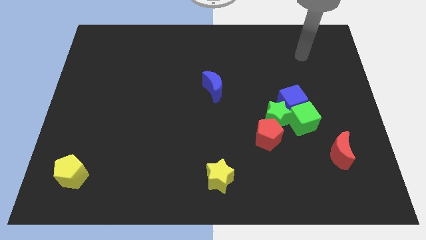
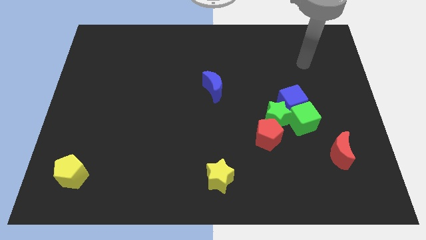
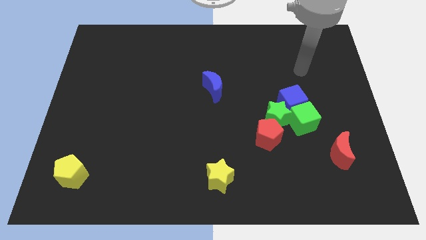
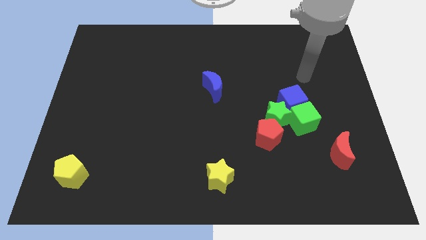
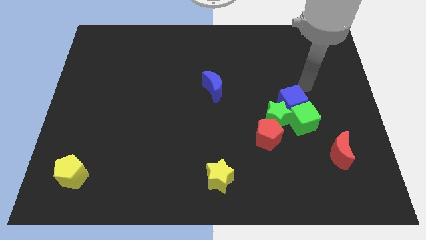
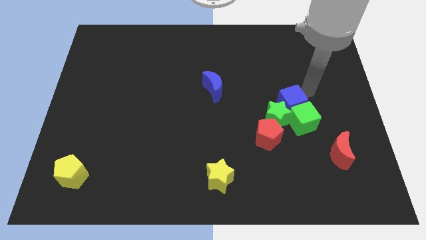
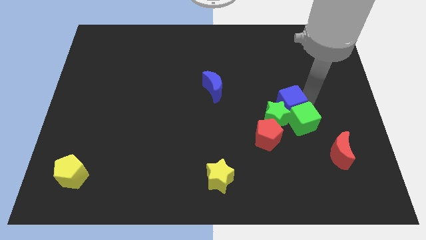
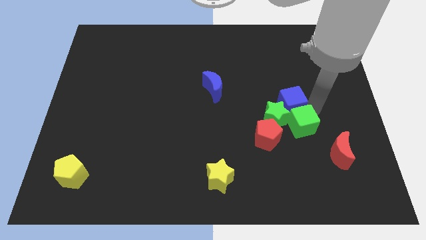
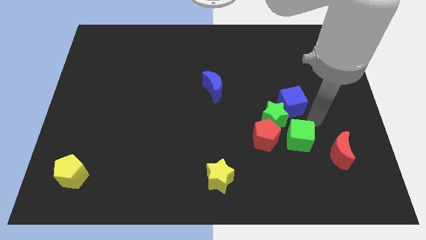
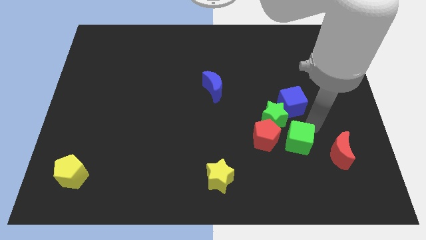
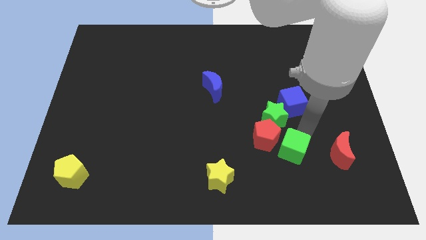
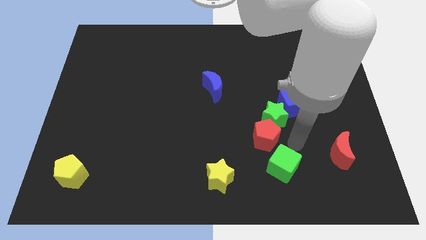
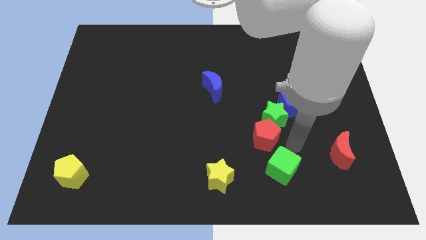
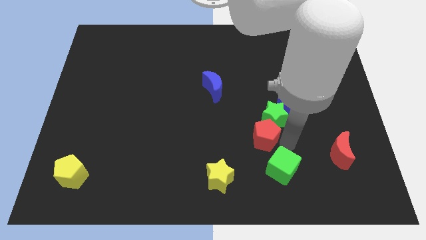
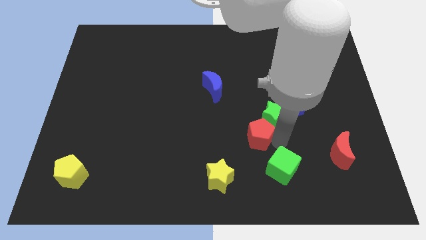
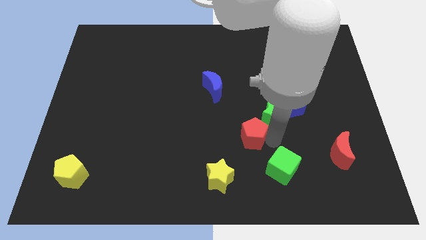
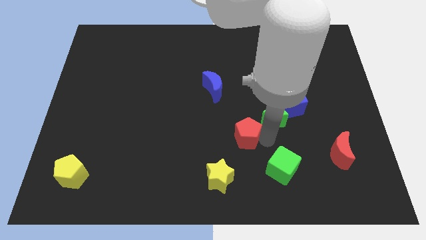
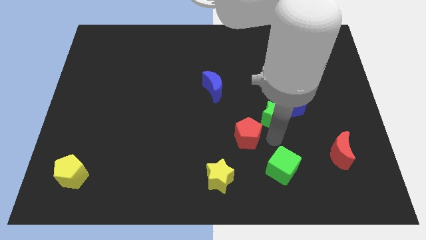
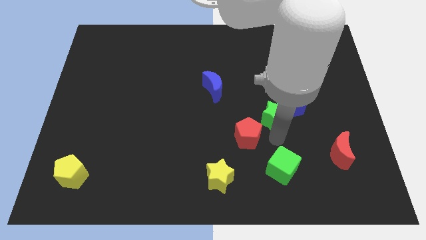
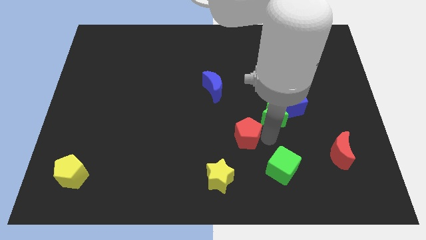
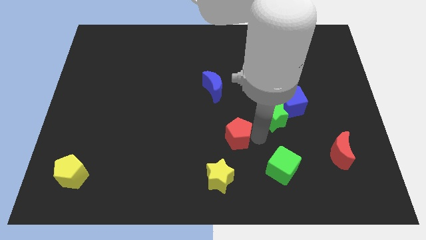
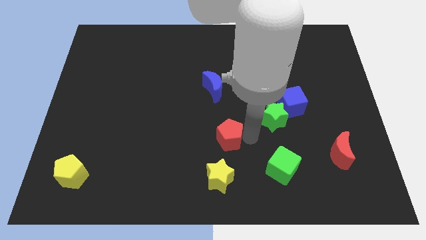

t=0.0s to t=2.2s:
slide the red pentagon slightly to the left

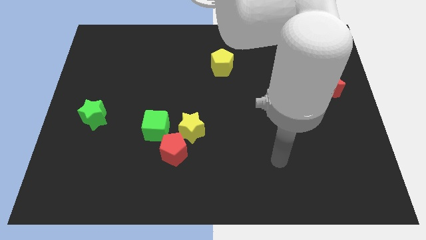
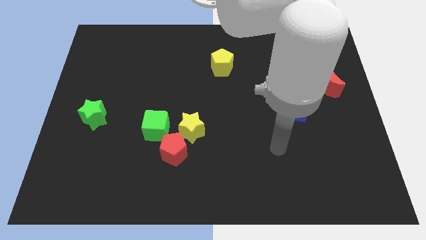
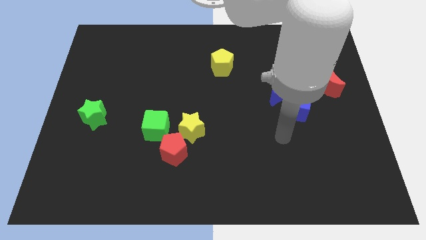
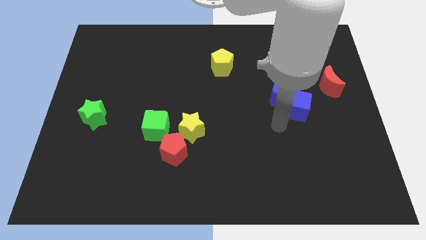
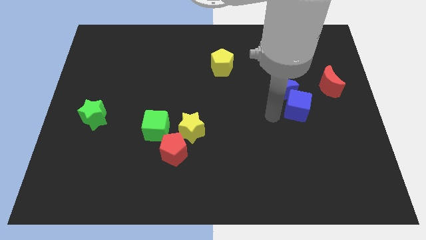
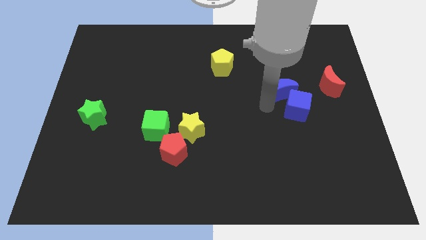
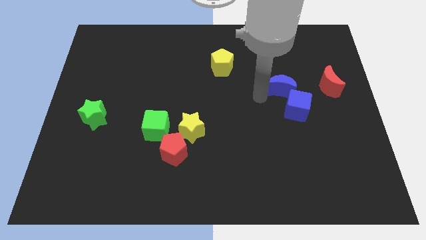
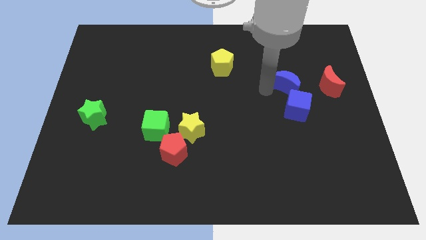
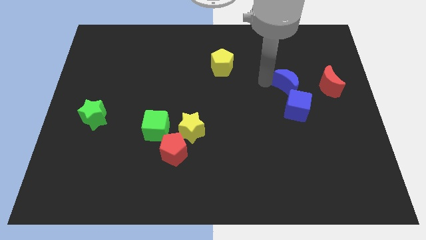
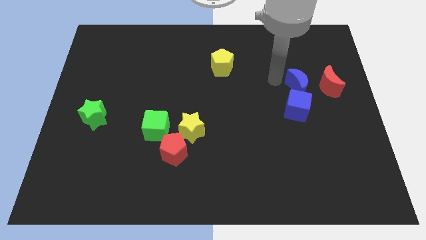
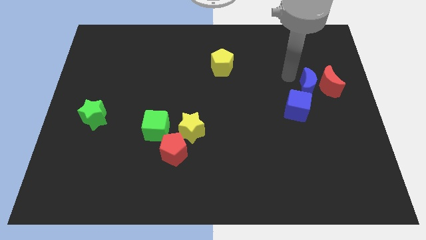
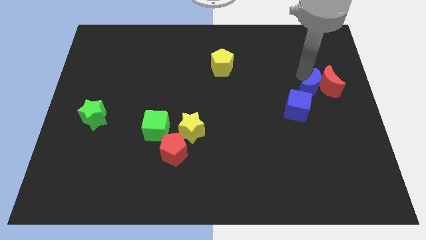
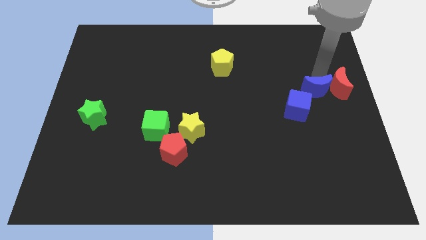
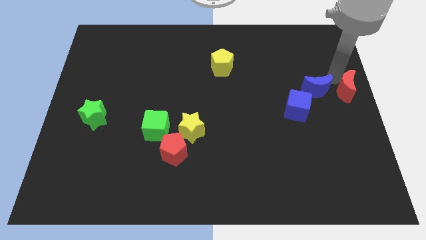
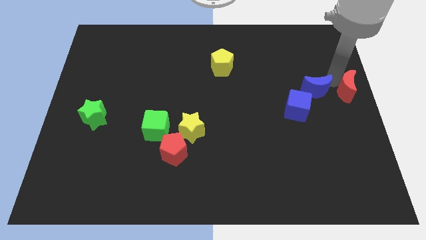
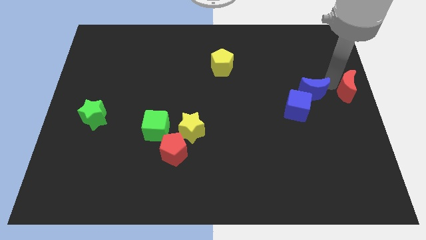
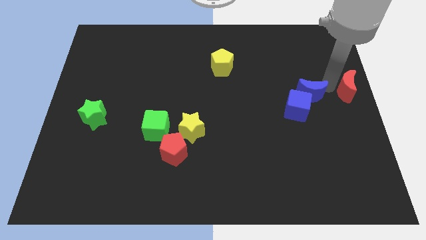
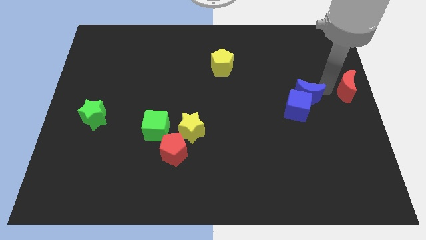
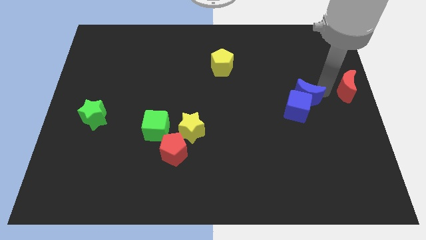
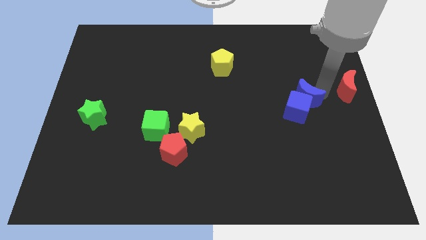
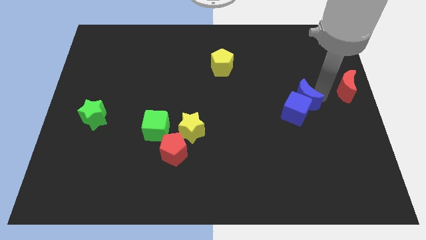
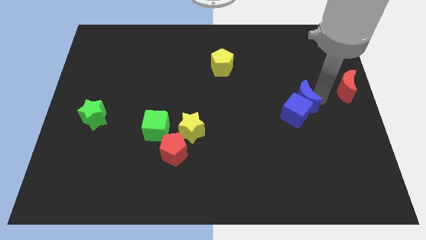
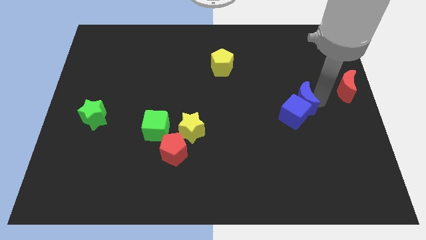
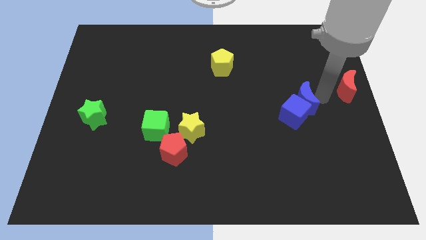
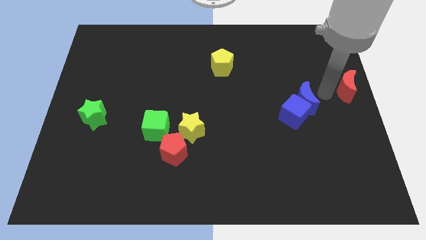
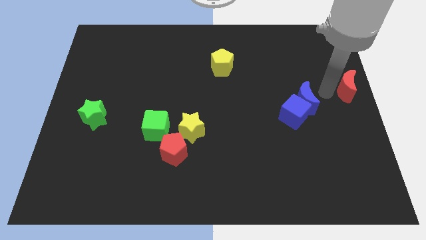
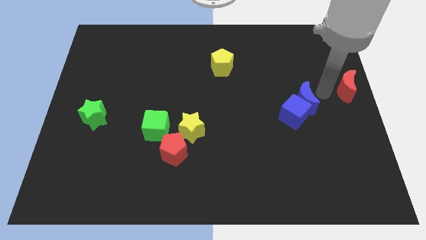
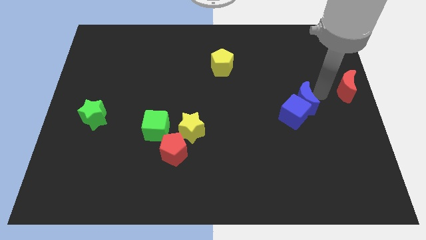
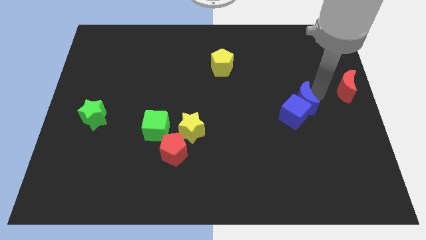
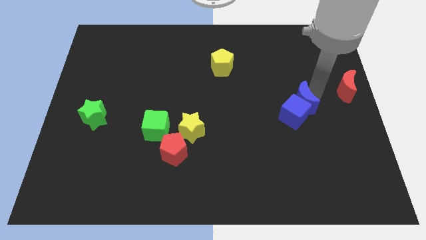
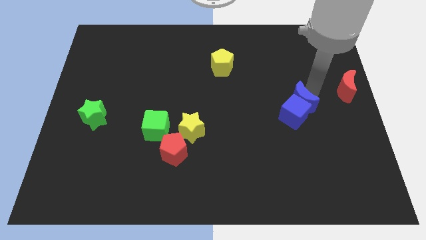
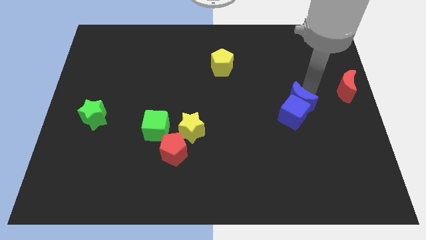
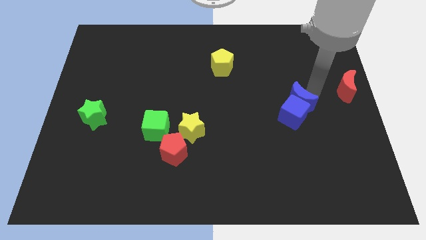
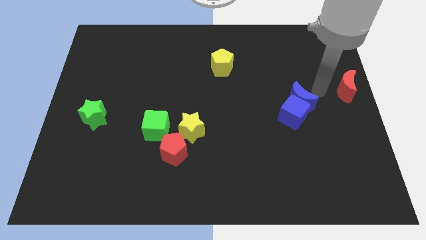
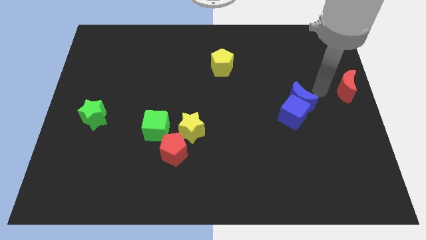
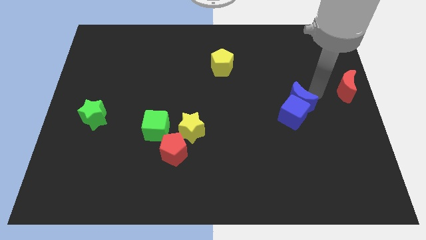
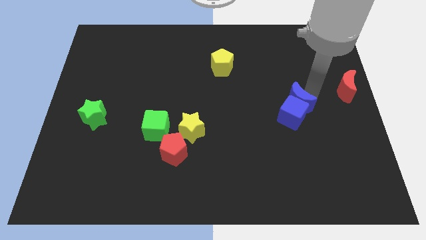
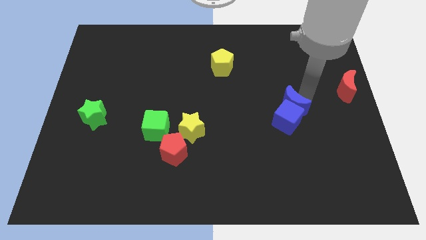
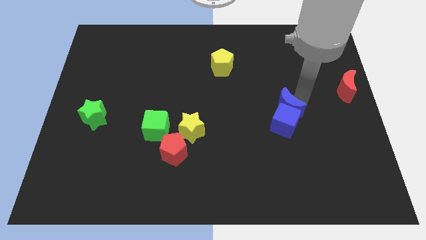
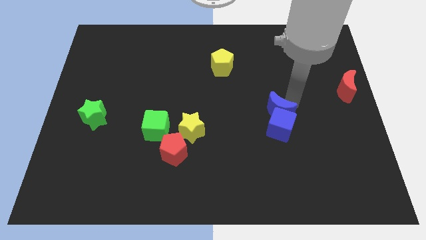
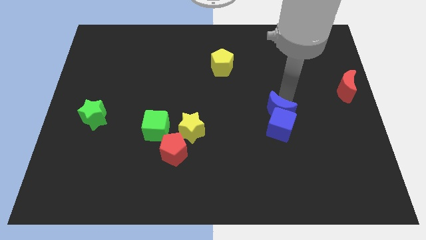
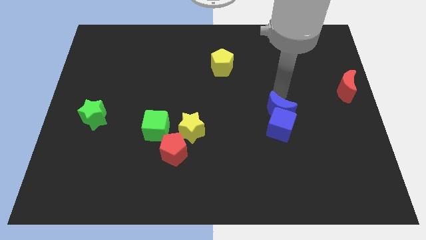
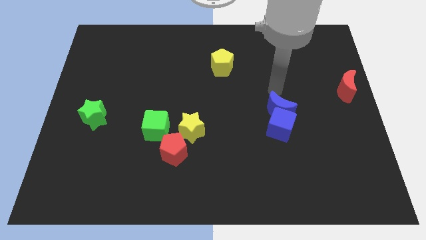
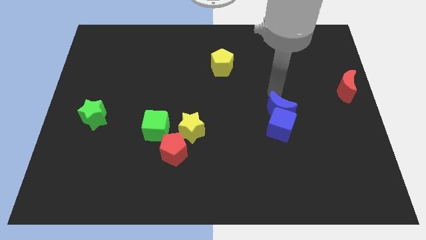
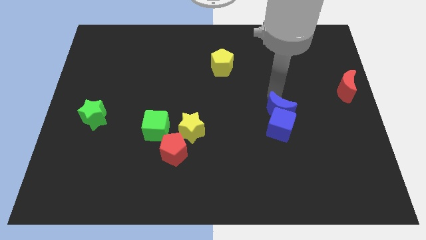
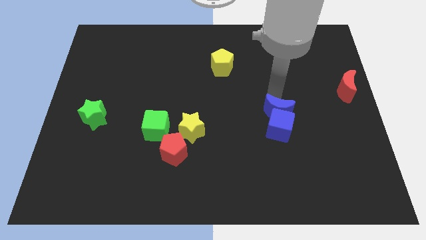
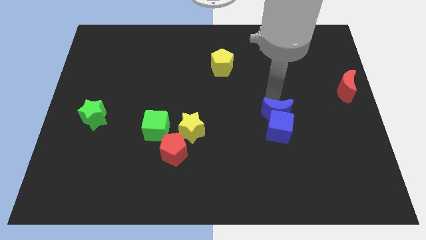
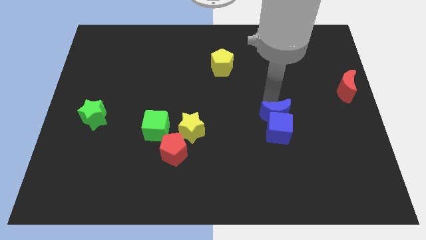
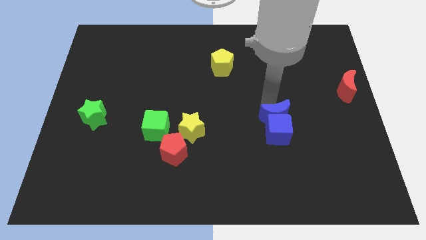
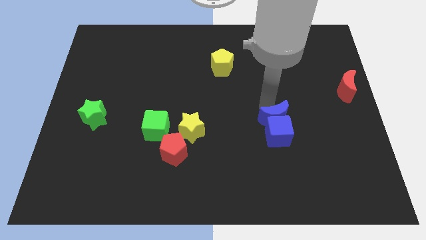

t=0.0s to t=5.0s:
move the blue moon a bit downwards

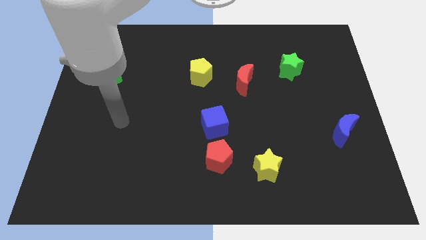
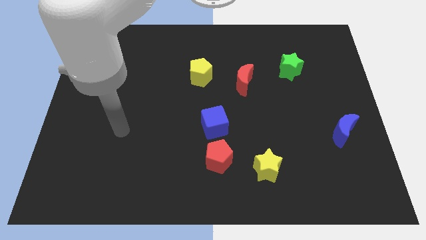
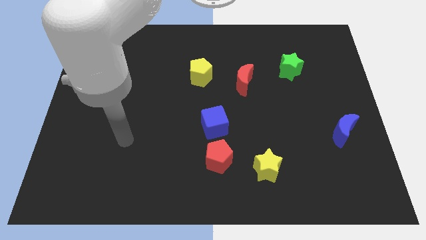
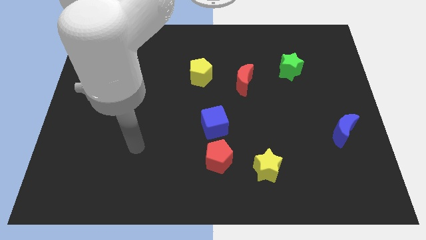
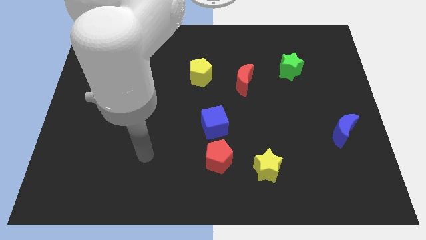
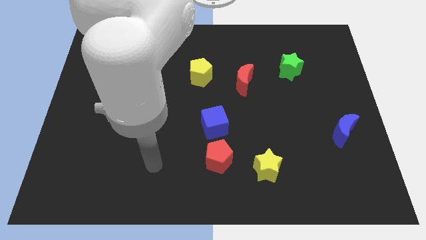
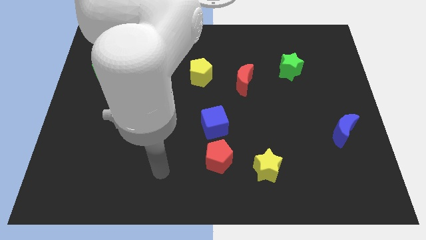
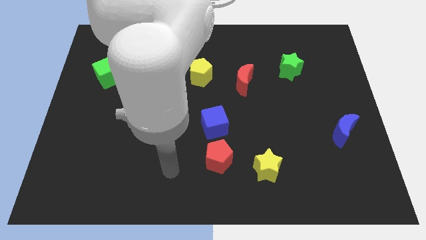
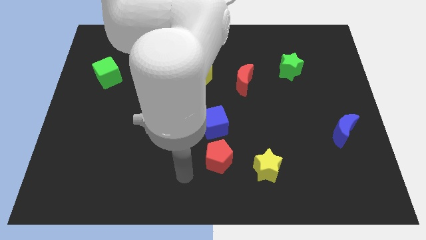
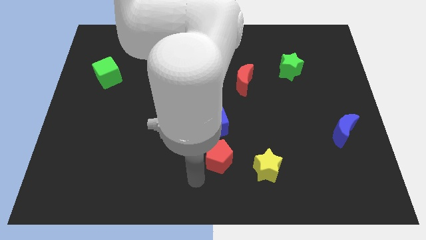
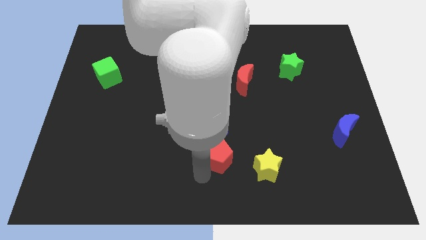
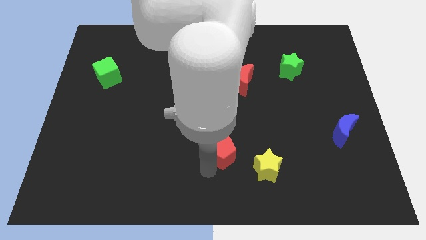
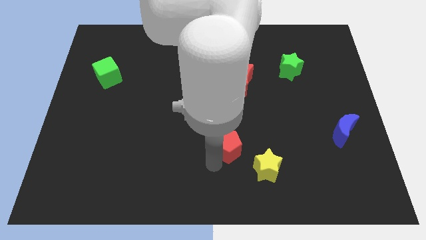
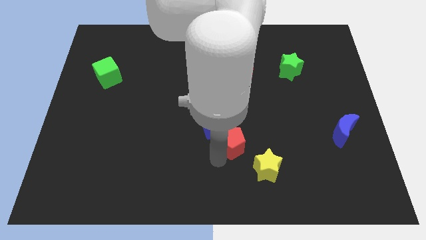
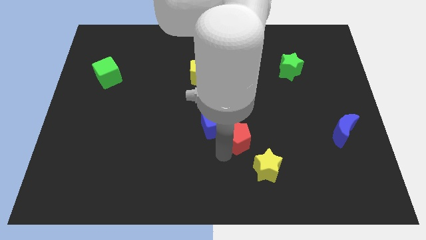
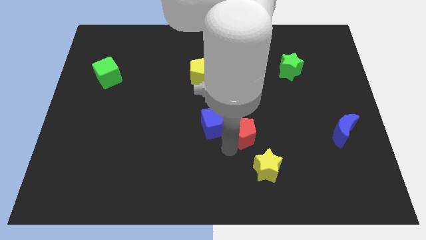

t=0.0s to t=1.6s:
push the red pentagon somewhat up and right
